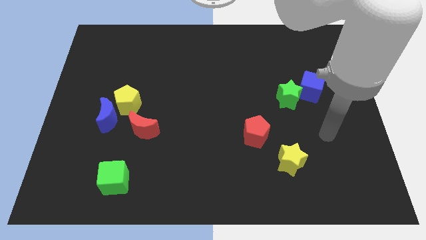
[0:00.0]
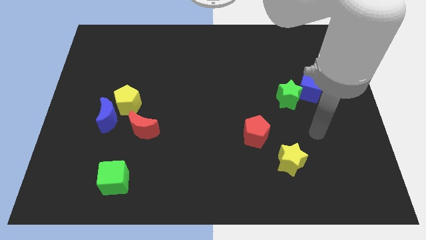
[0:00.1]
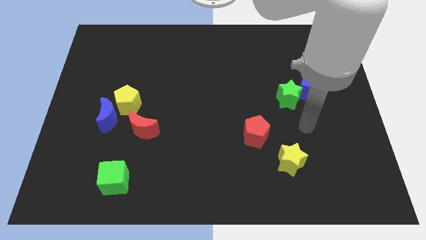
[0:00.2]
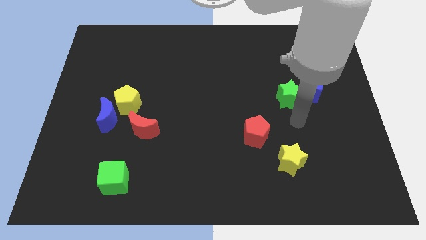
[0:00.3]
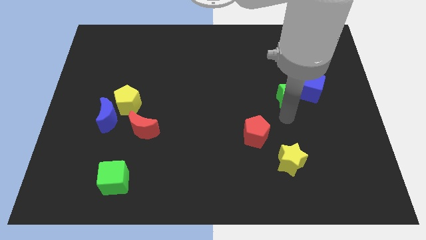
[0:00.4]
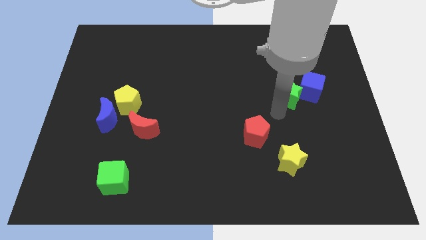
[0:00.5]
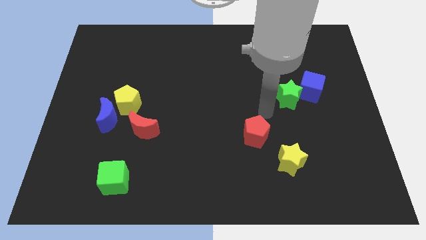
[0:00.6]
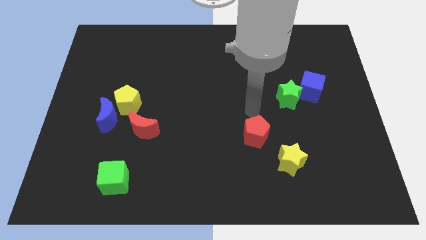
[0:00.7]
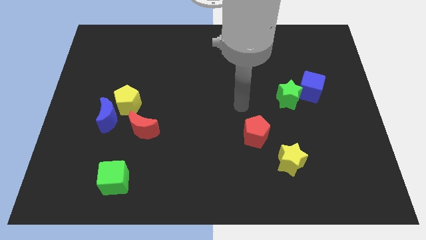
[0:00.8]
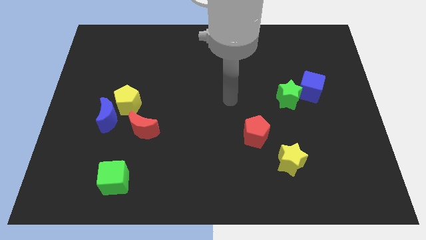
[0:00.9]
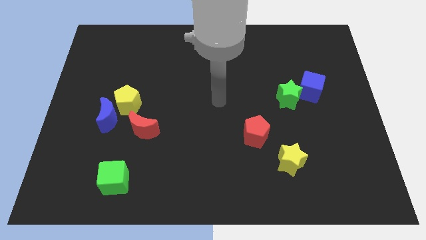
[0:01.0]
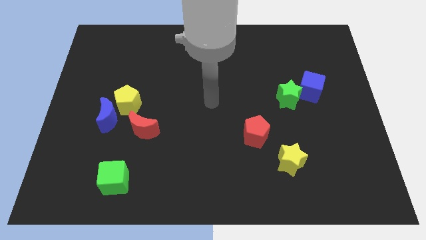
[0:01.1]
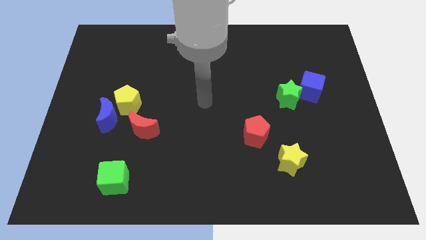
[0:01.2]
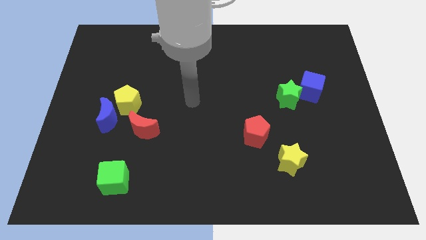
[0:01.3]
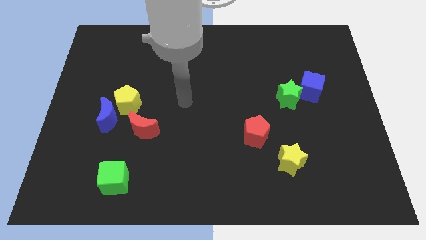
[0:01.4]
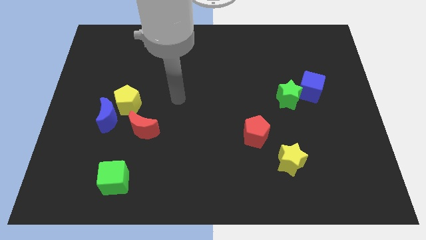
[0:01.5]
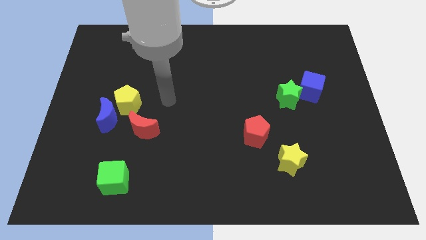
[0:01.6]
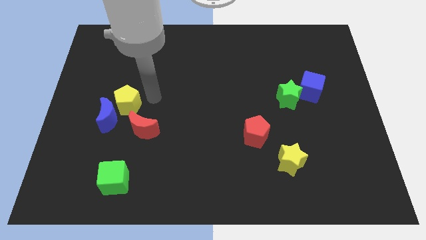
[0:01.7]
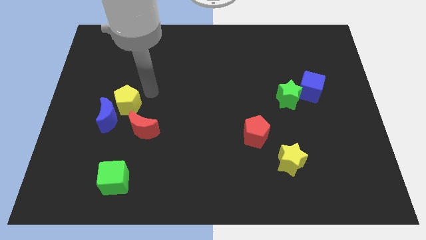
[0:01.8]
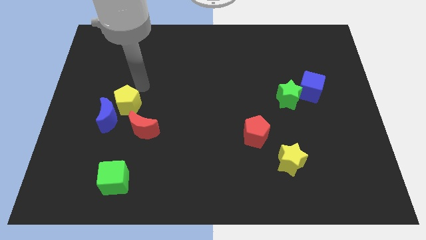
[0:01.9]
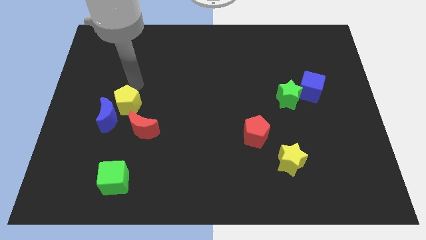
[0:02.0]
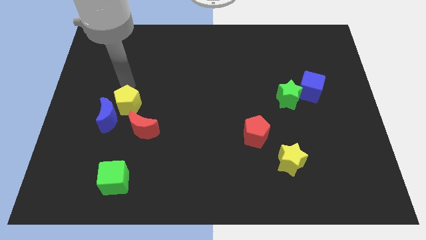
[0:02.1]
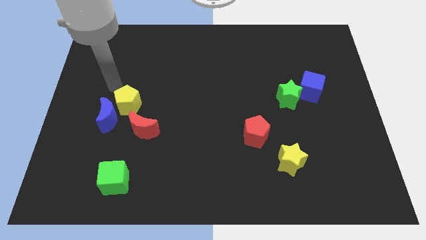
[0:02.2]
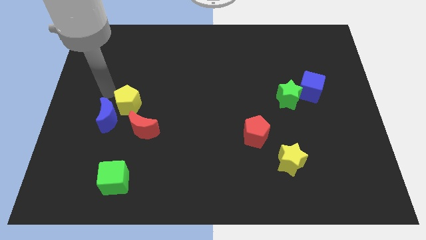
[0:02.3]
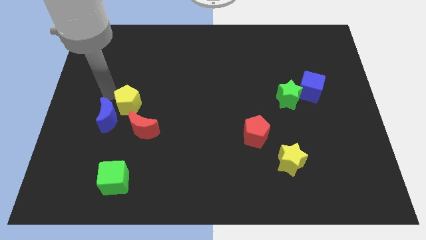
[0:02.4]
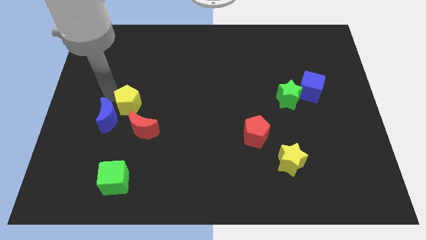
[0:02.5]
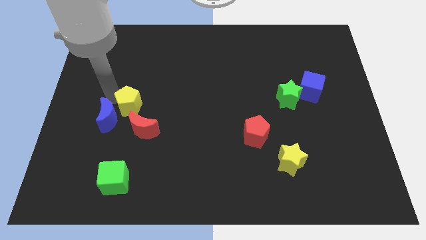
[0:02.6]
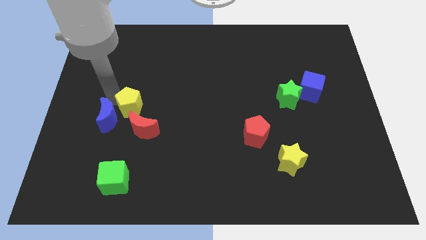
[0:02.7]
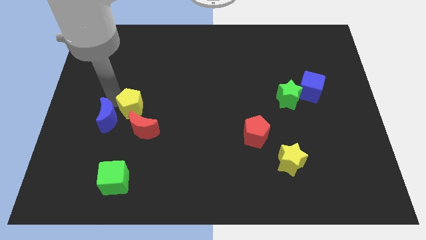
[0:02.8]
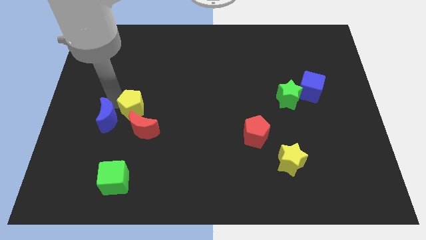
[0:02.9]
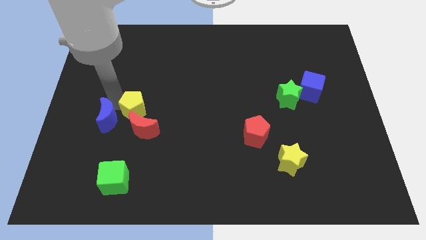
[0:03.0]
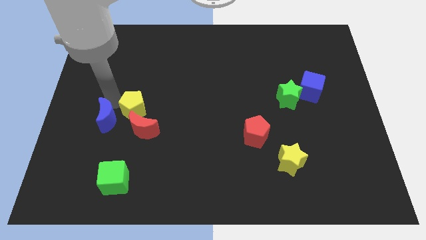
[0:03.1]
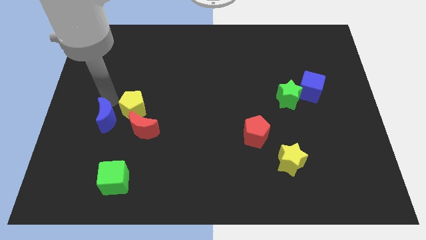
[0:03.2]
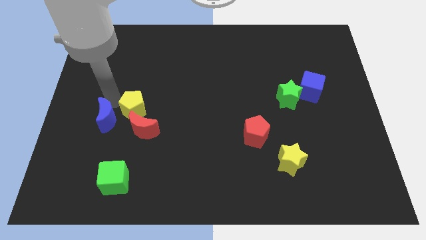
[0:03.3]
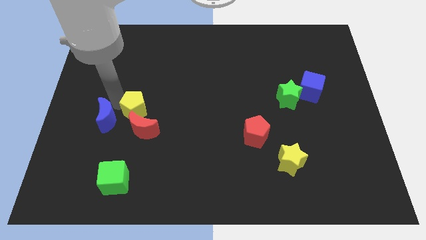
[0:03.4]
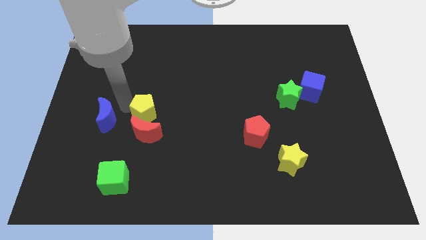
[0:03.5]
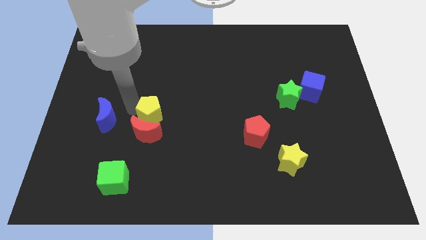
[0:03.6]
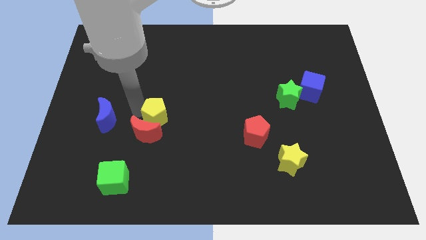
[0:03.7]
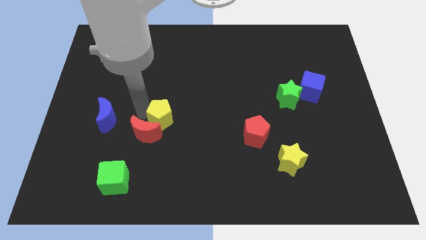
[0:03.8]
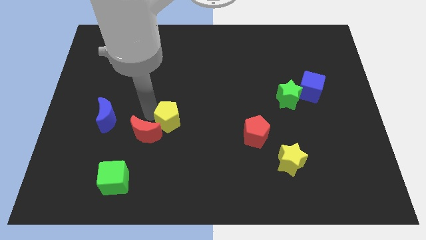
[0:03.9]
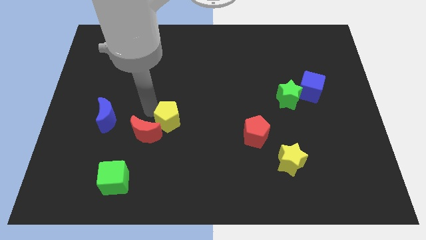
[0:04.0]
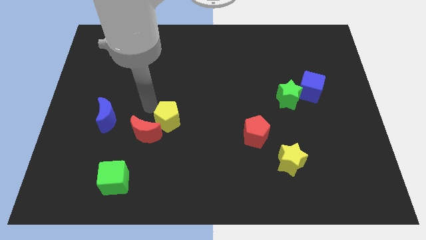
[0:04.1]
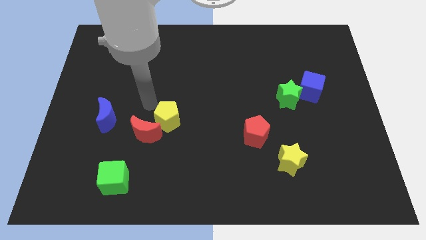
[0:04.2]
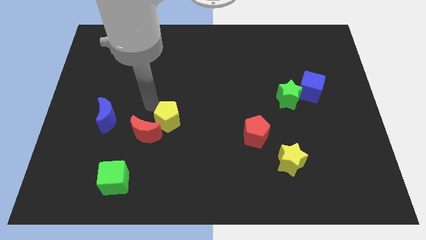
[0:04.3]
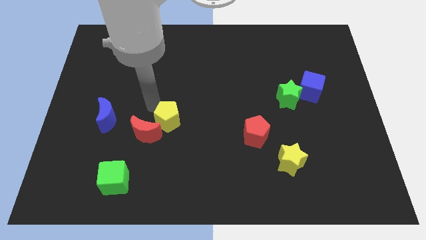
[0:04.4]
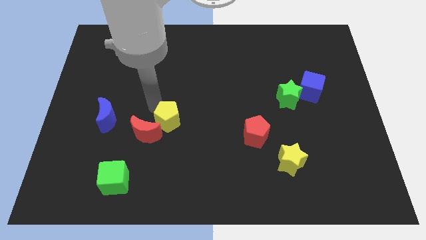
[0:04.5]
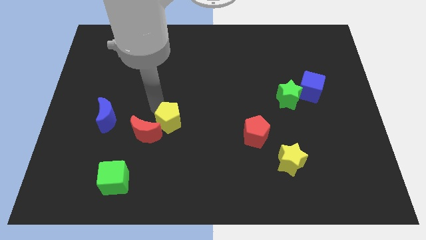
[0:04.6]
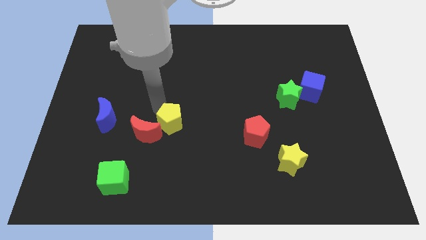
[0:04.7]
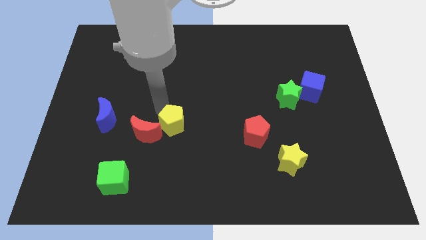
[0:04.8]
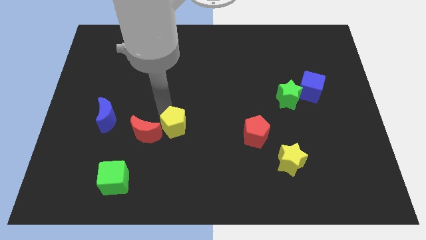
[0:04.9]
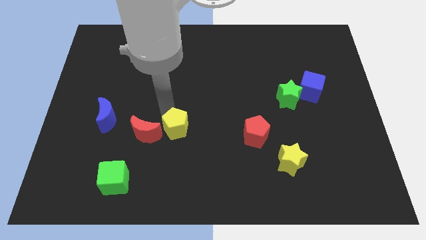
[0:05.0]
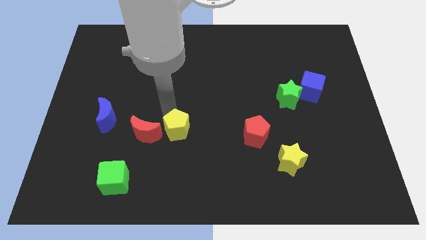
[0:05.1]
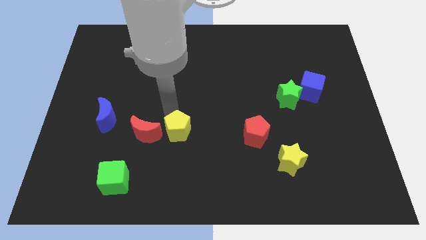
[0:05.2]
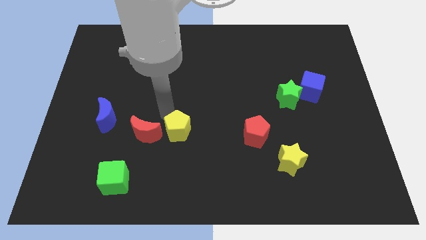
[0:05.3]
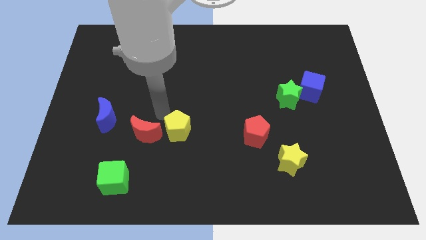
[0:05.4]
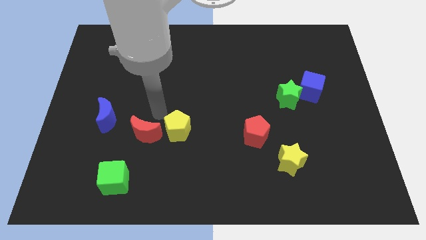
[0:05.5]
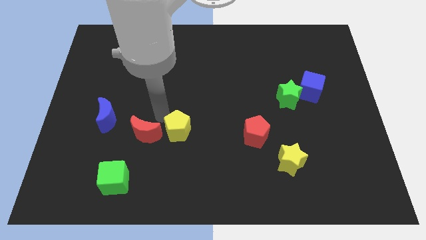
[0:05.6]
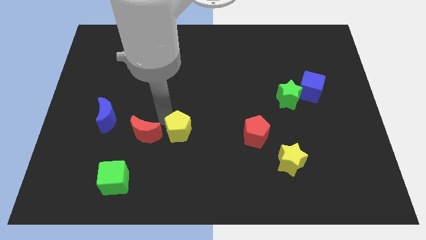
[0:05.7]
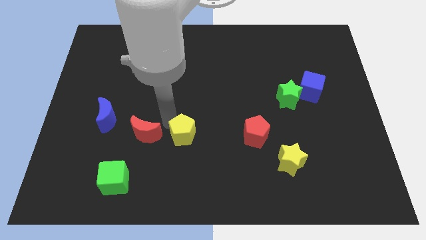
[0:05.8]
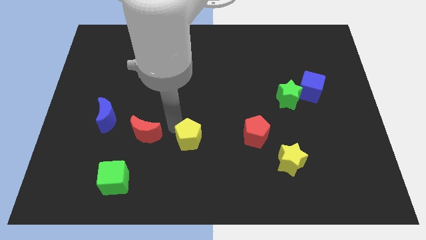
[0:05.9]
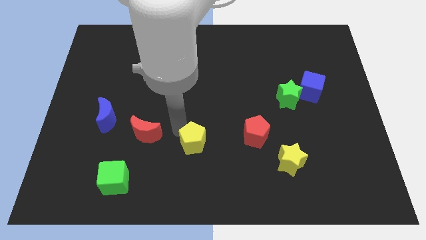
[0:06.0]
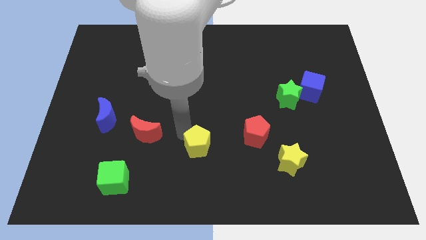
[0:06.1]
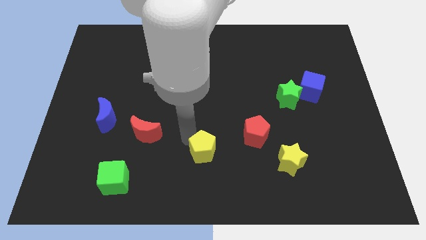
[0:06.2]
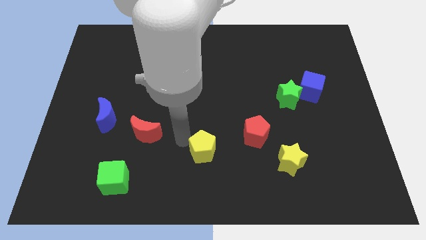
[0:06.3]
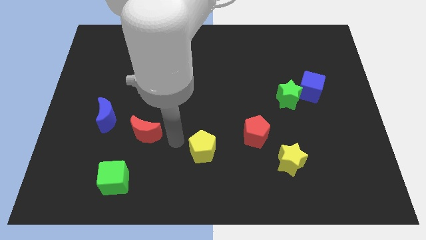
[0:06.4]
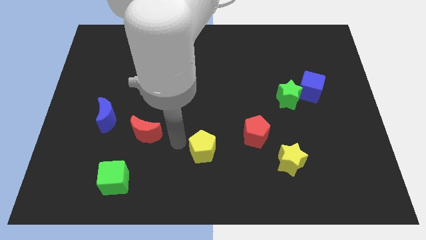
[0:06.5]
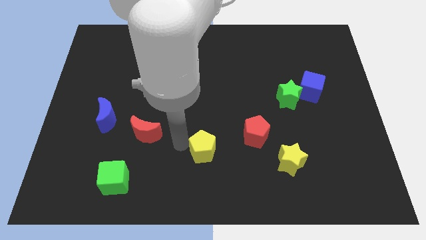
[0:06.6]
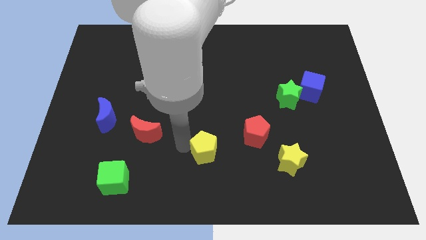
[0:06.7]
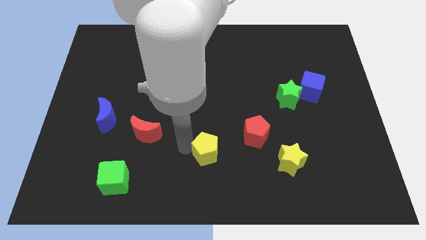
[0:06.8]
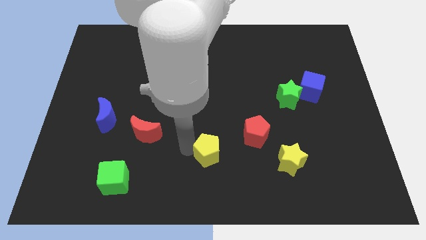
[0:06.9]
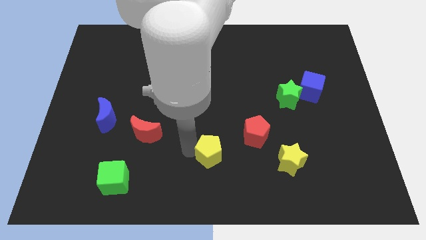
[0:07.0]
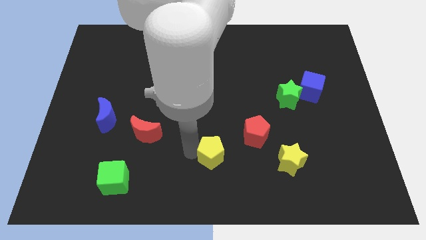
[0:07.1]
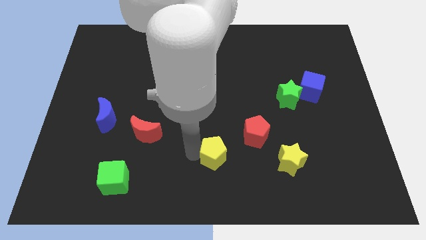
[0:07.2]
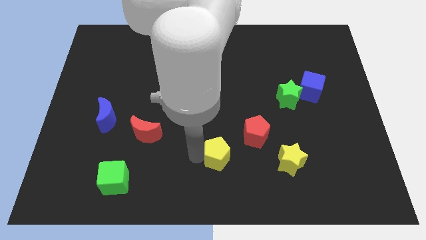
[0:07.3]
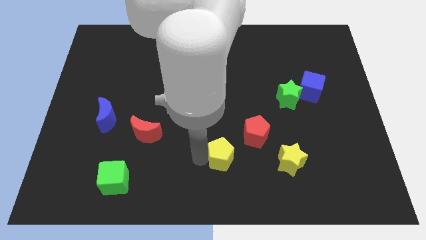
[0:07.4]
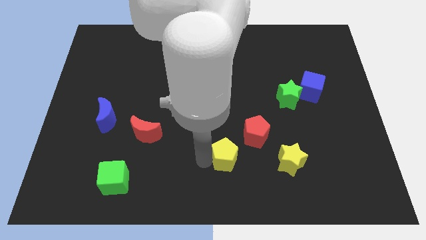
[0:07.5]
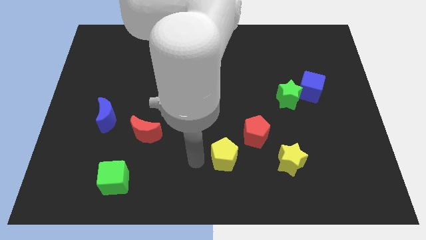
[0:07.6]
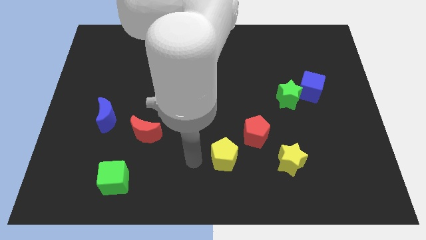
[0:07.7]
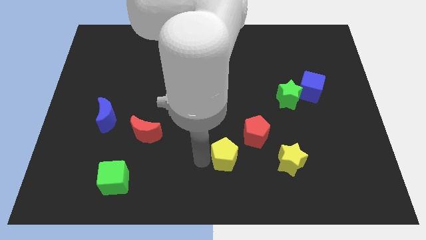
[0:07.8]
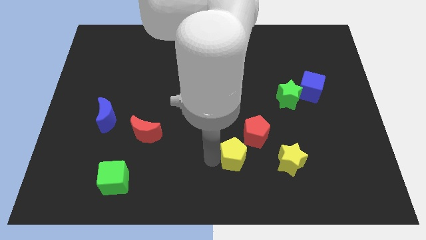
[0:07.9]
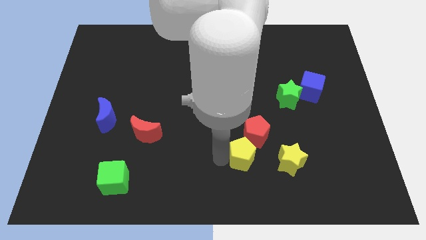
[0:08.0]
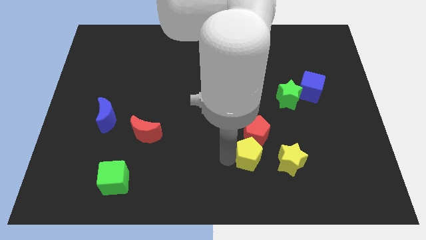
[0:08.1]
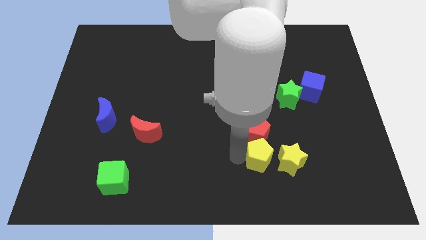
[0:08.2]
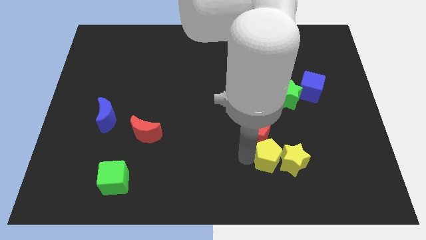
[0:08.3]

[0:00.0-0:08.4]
slide the yellow pentagon to the yellow star
